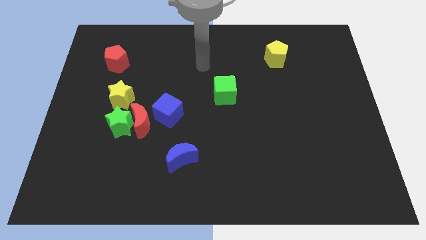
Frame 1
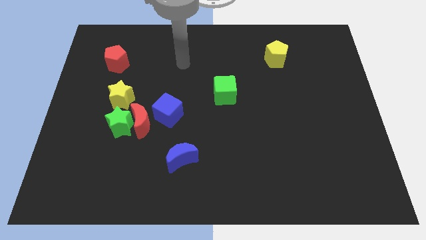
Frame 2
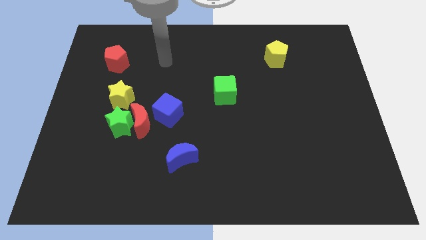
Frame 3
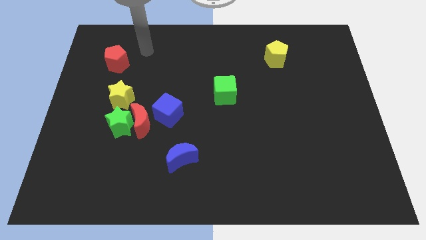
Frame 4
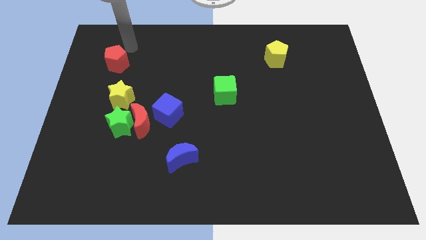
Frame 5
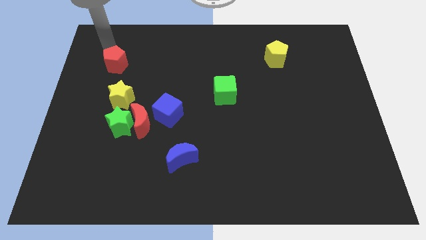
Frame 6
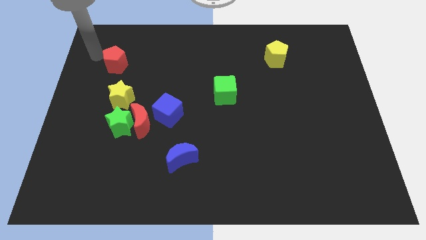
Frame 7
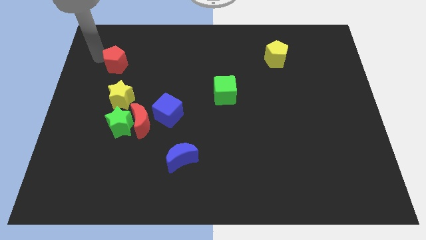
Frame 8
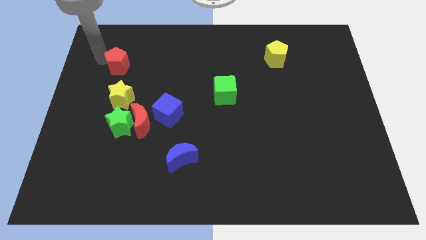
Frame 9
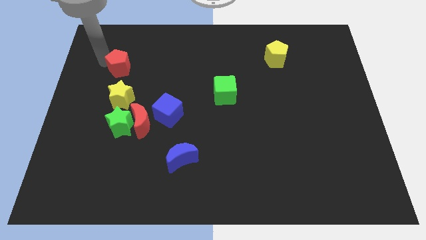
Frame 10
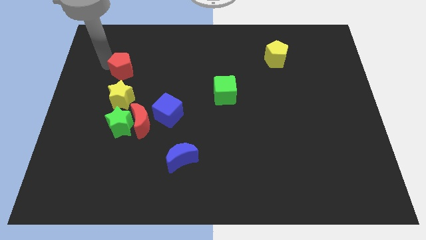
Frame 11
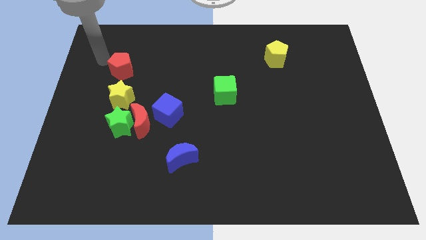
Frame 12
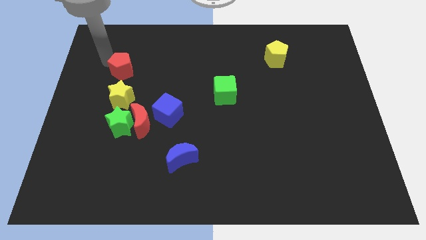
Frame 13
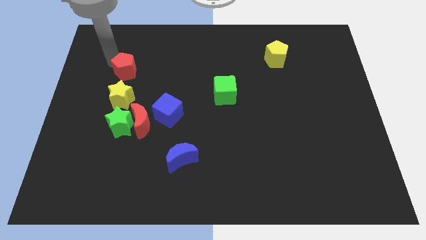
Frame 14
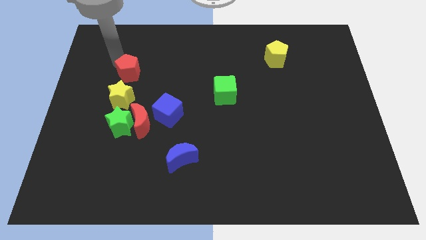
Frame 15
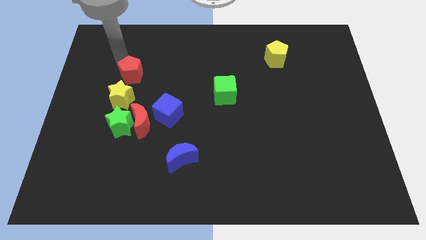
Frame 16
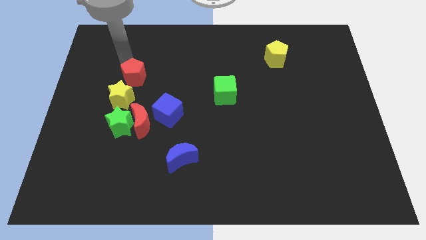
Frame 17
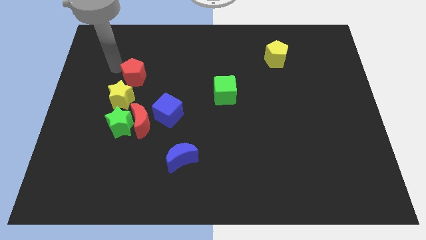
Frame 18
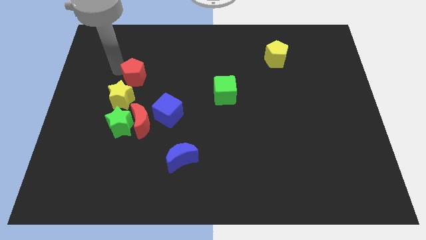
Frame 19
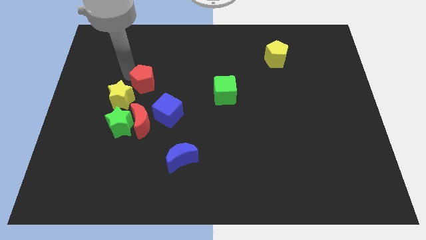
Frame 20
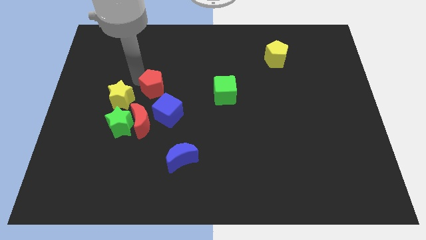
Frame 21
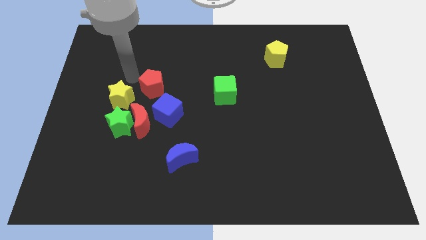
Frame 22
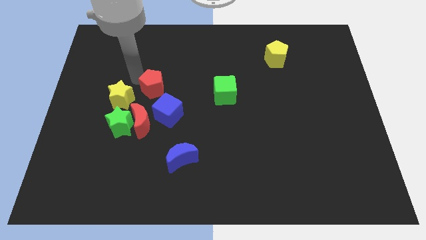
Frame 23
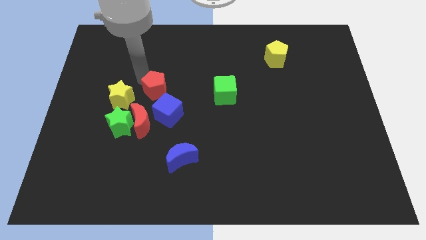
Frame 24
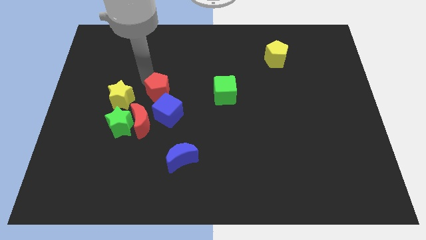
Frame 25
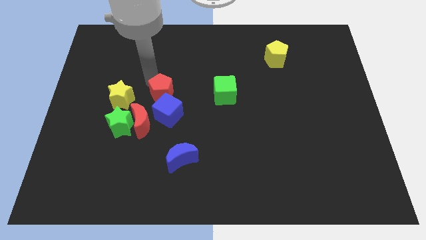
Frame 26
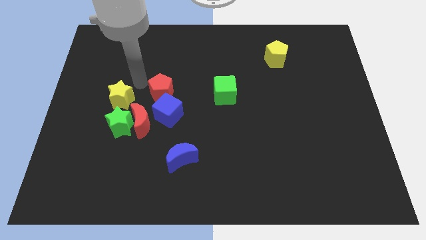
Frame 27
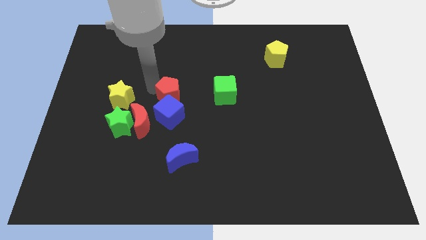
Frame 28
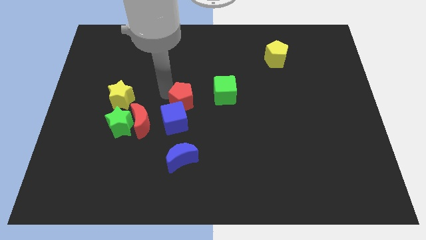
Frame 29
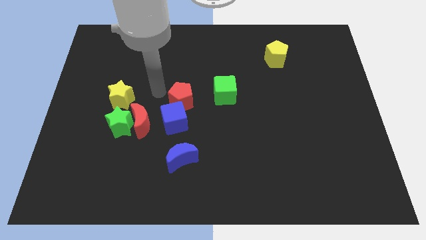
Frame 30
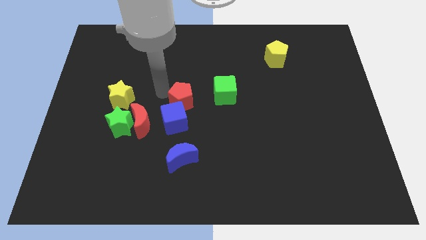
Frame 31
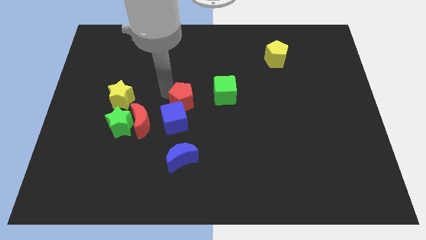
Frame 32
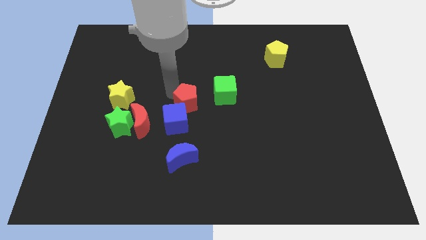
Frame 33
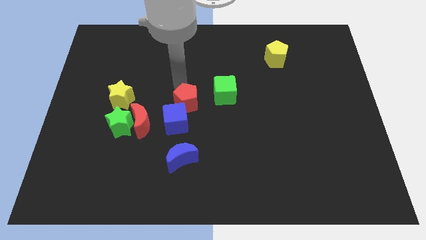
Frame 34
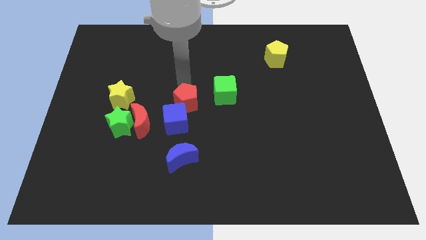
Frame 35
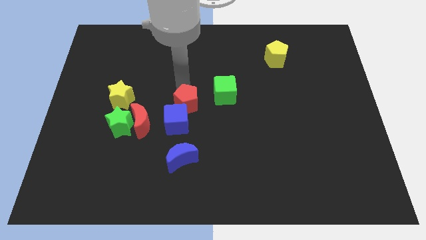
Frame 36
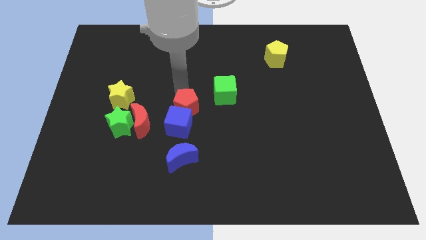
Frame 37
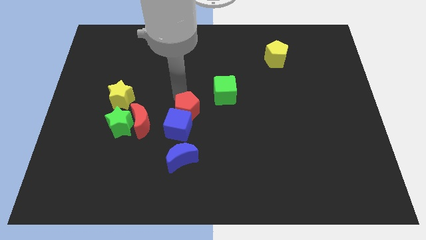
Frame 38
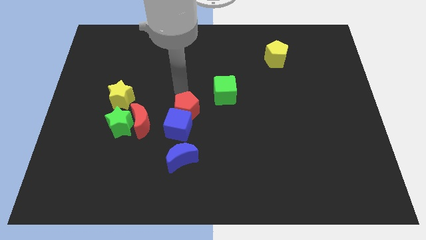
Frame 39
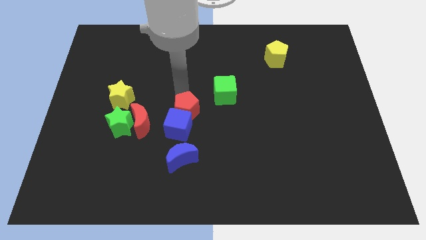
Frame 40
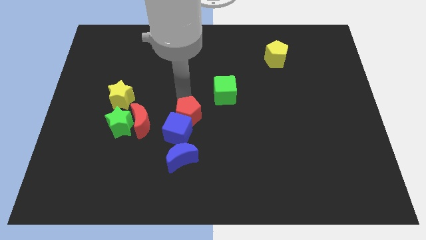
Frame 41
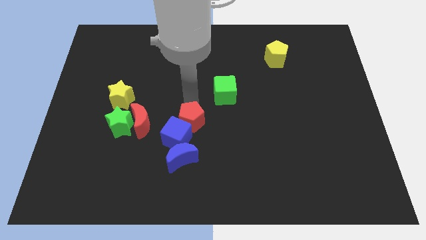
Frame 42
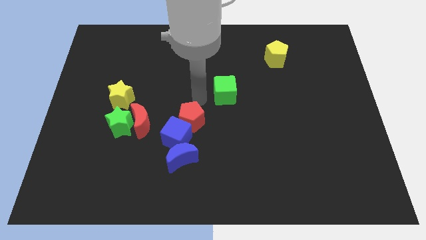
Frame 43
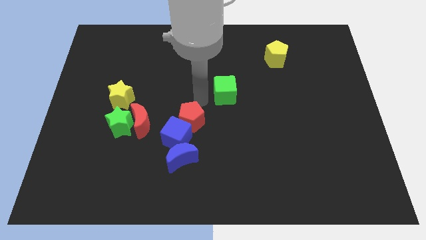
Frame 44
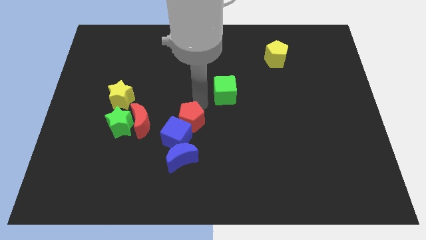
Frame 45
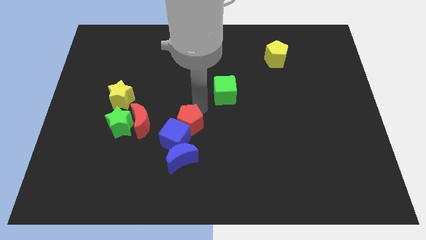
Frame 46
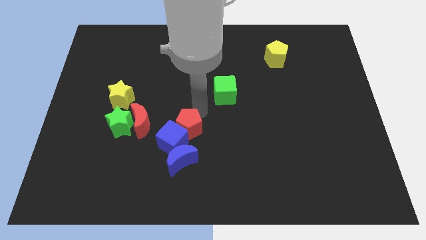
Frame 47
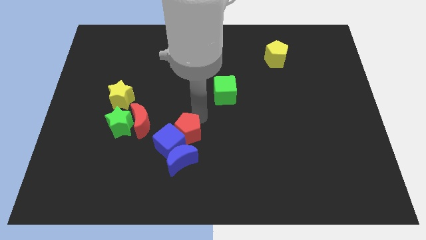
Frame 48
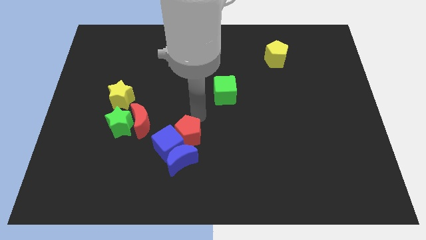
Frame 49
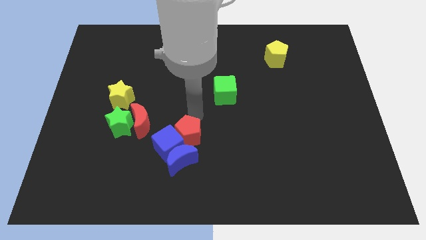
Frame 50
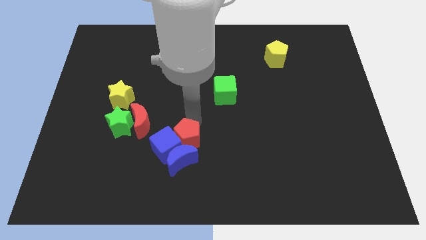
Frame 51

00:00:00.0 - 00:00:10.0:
slide the red pentagon to the blue moon

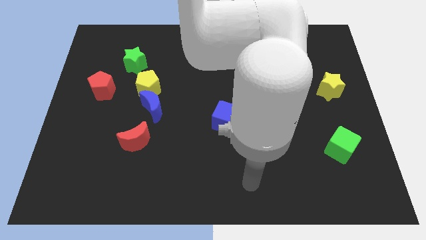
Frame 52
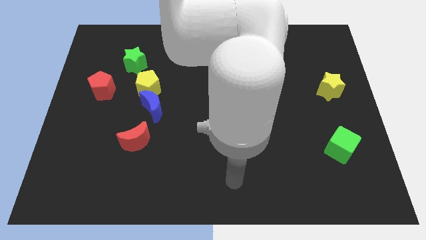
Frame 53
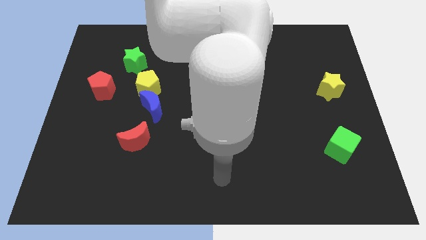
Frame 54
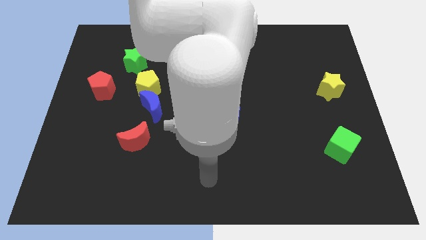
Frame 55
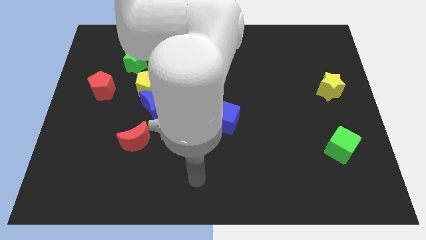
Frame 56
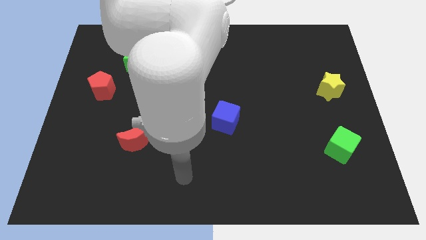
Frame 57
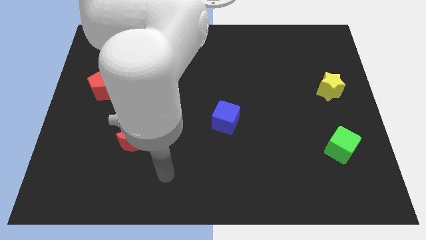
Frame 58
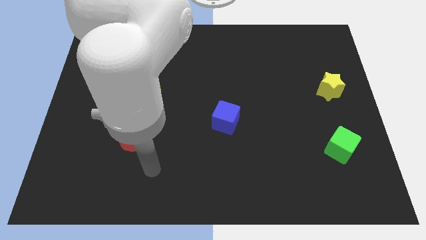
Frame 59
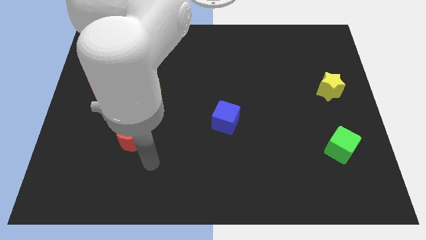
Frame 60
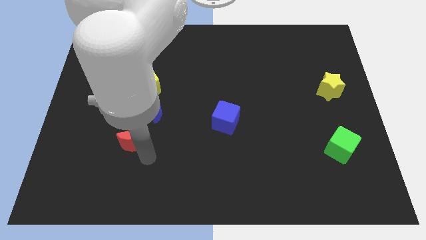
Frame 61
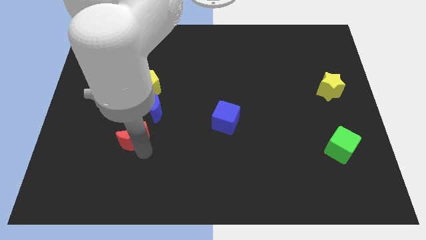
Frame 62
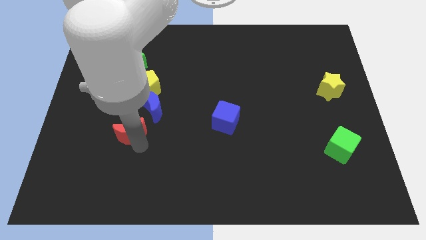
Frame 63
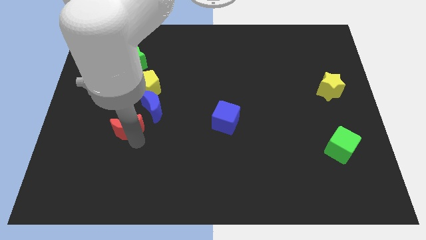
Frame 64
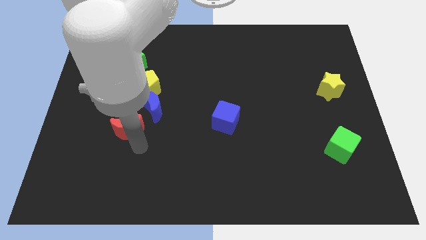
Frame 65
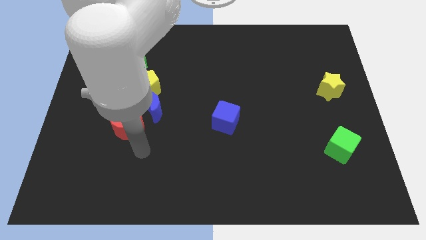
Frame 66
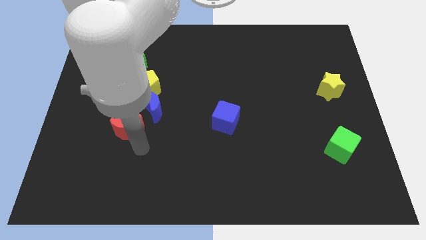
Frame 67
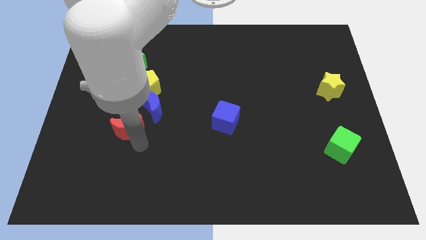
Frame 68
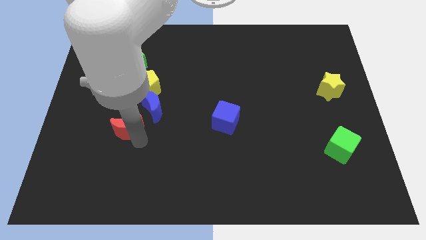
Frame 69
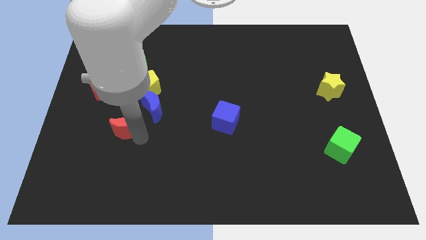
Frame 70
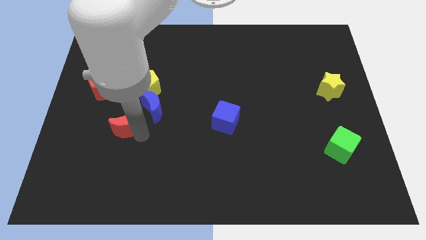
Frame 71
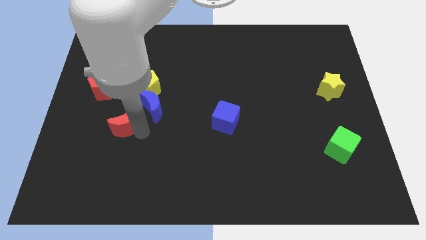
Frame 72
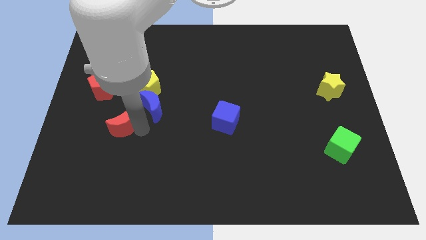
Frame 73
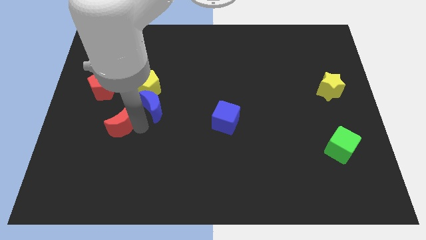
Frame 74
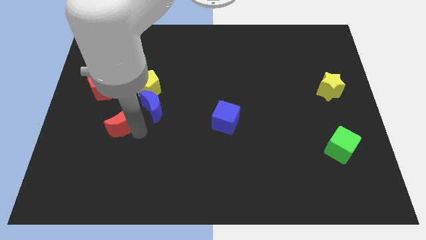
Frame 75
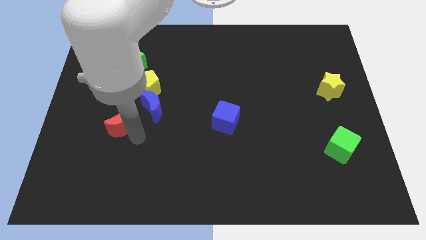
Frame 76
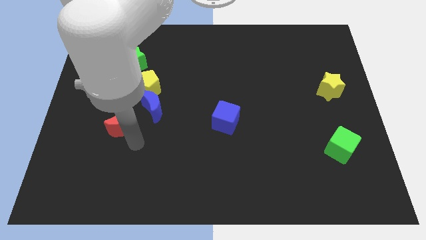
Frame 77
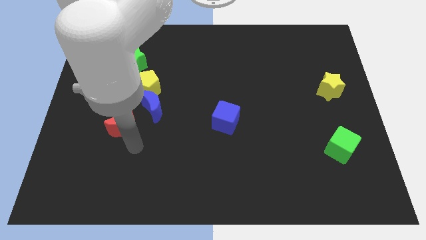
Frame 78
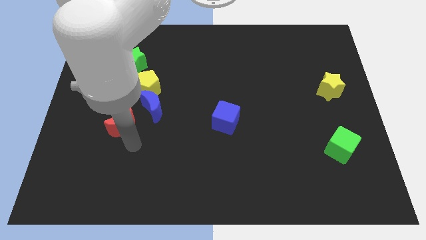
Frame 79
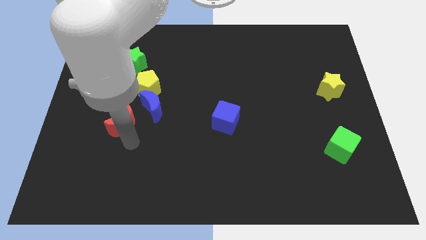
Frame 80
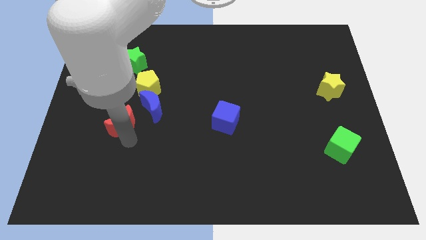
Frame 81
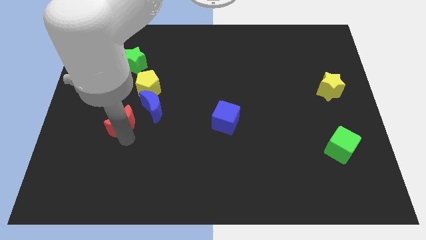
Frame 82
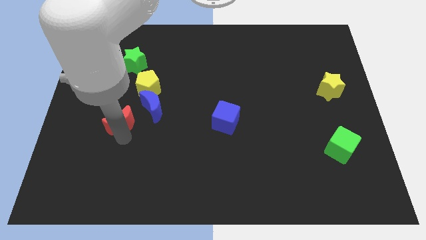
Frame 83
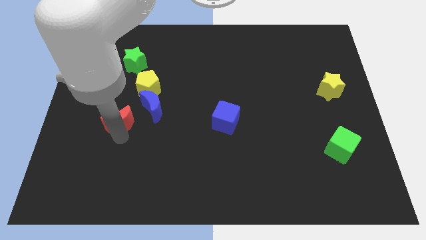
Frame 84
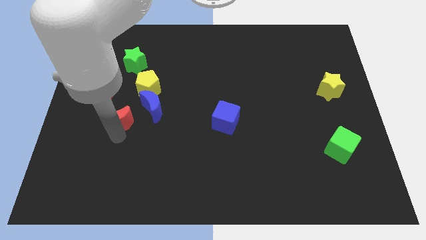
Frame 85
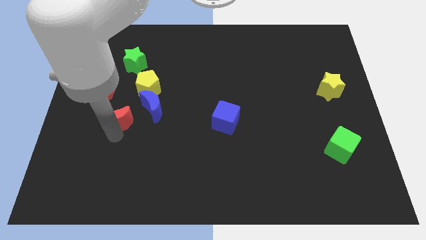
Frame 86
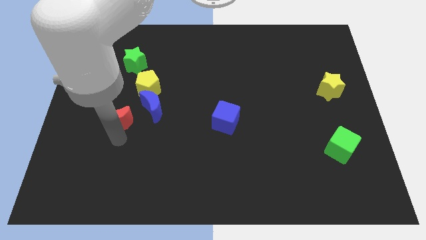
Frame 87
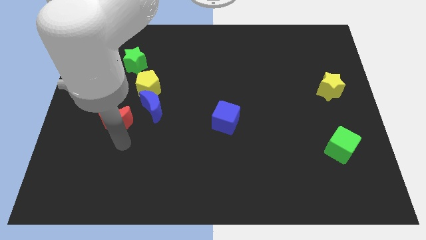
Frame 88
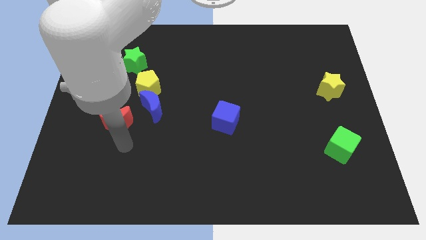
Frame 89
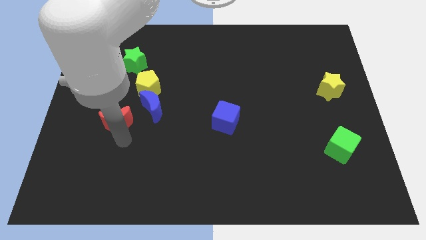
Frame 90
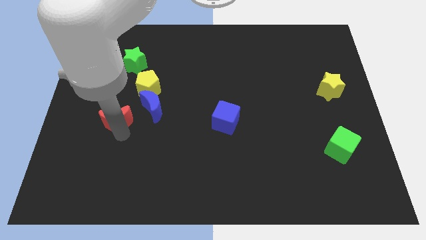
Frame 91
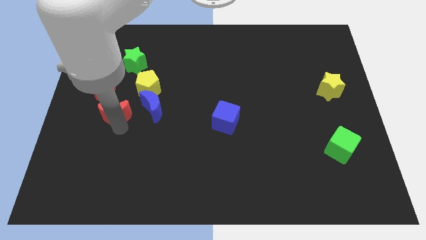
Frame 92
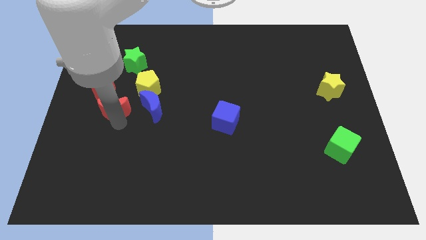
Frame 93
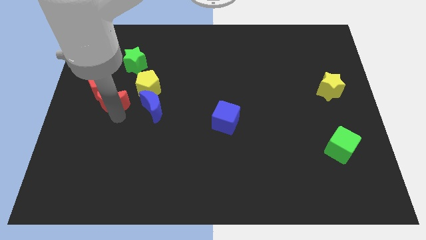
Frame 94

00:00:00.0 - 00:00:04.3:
slide the red moon to the red pentagon
